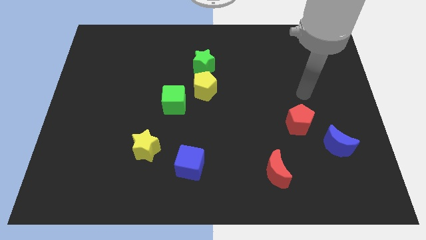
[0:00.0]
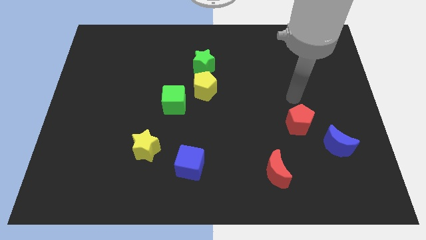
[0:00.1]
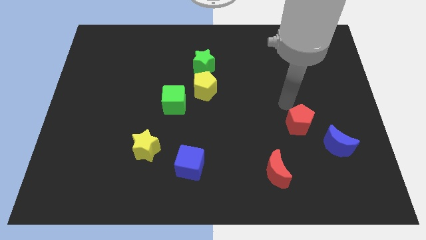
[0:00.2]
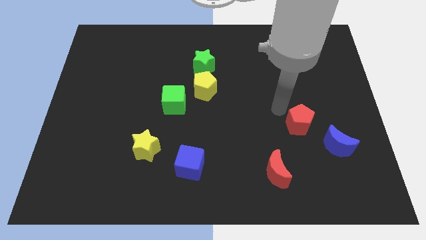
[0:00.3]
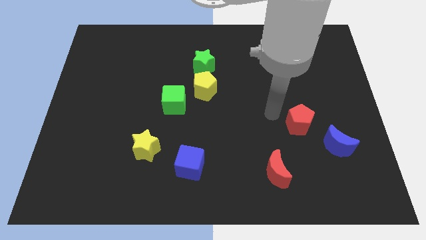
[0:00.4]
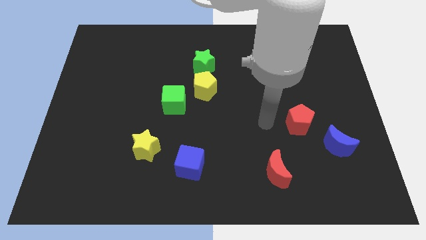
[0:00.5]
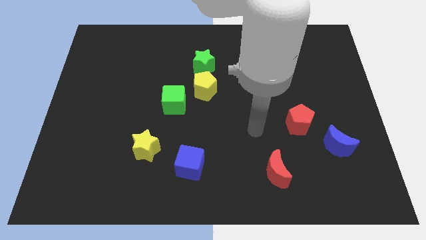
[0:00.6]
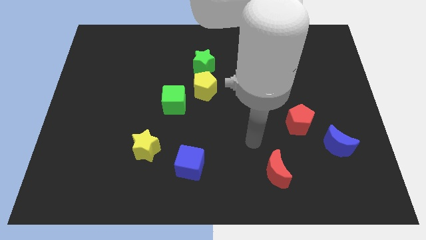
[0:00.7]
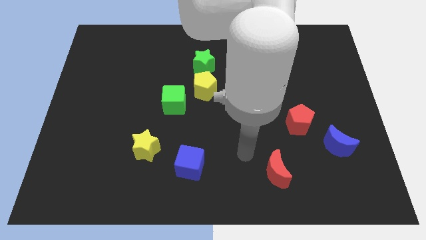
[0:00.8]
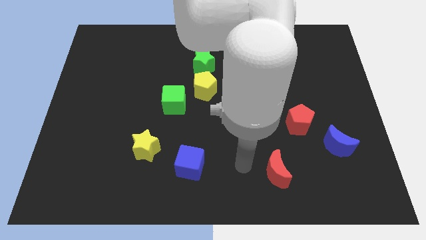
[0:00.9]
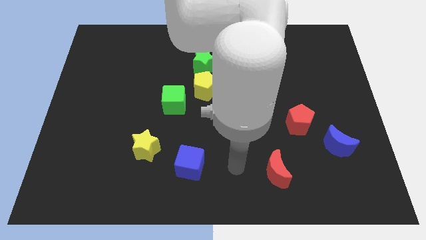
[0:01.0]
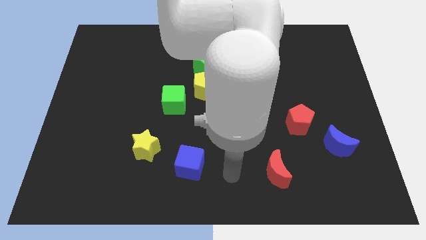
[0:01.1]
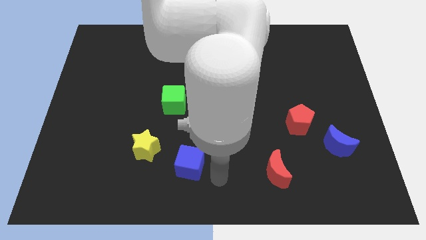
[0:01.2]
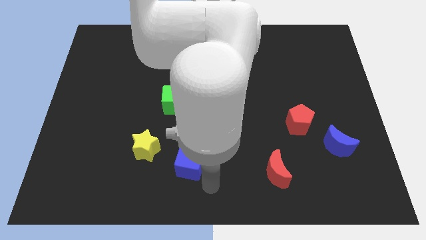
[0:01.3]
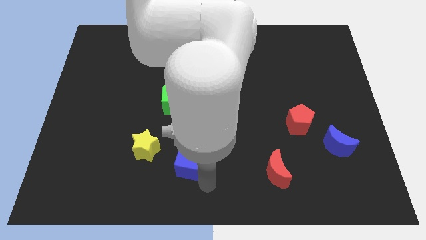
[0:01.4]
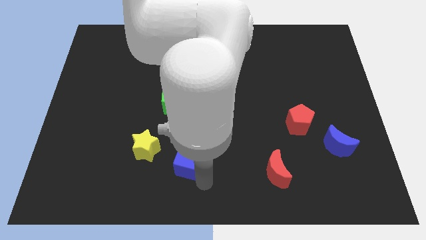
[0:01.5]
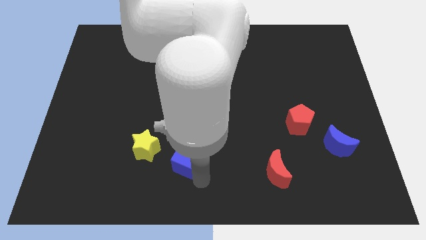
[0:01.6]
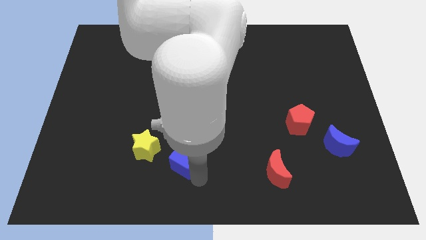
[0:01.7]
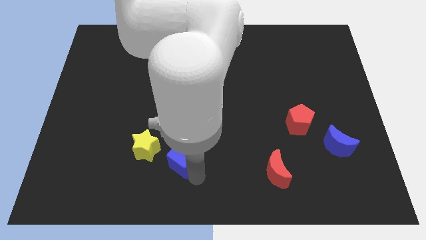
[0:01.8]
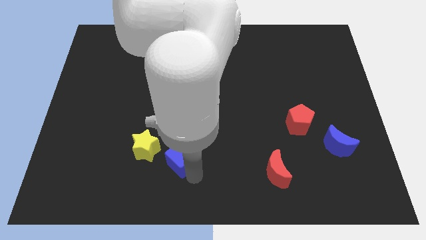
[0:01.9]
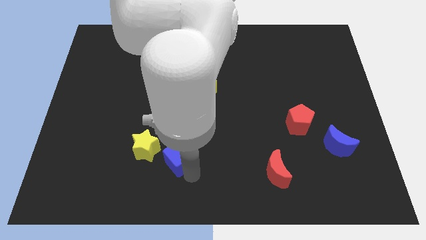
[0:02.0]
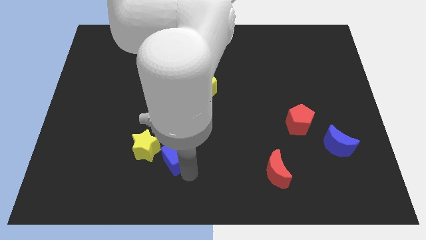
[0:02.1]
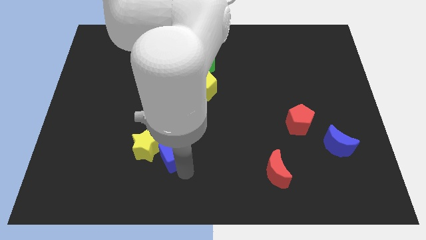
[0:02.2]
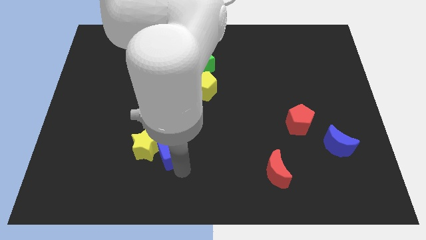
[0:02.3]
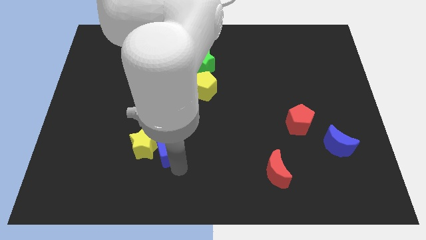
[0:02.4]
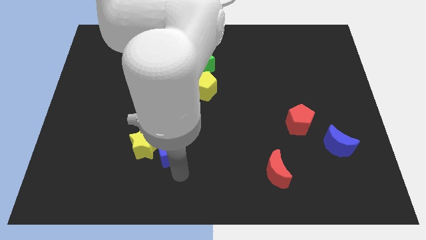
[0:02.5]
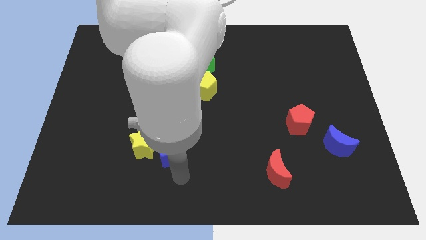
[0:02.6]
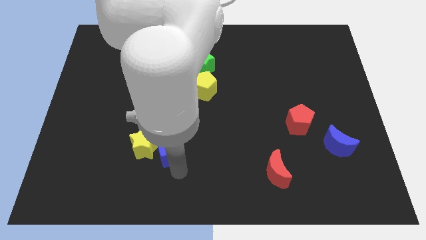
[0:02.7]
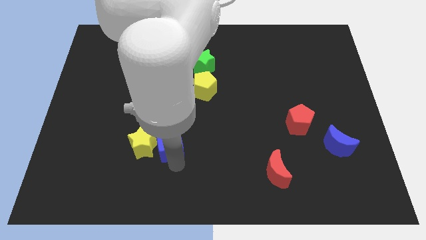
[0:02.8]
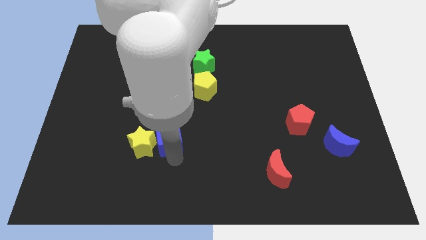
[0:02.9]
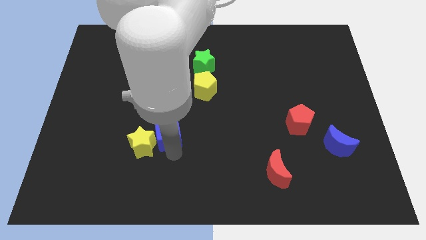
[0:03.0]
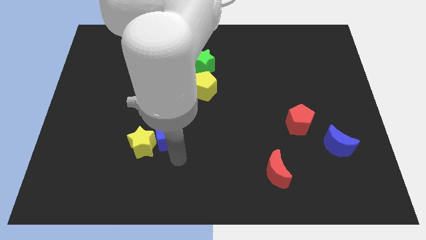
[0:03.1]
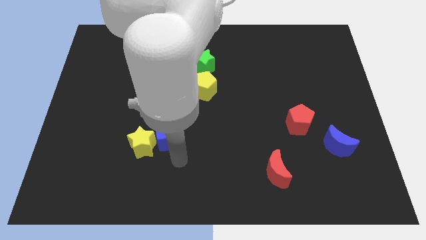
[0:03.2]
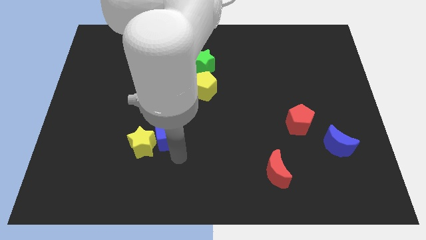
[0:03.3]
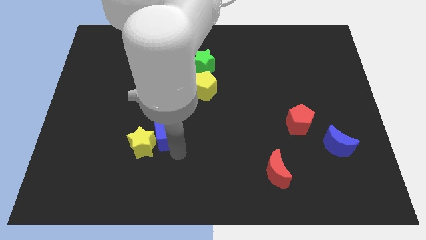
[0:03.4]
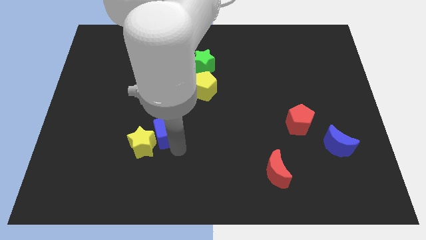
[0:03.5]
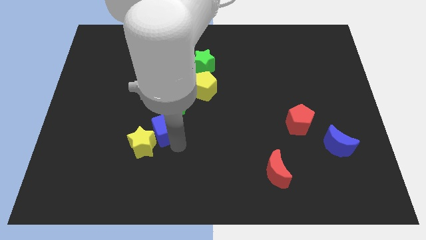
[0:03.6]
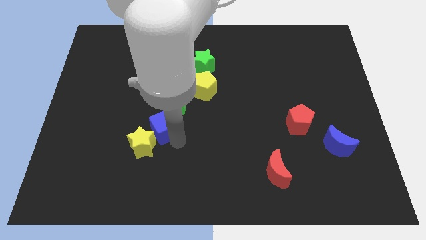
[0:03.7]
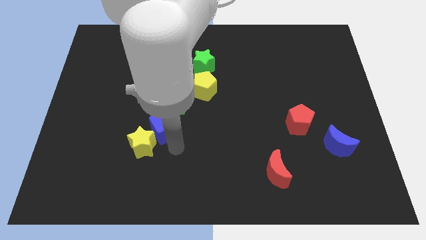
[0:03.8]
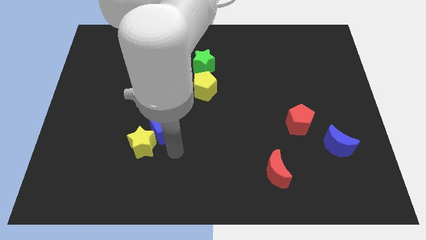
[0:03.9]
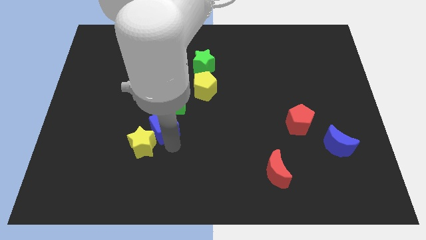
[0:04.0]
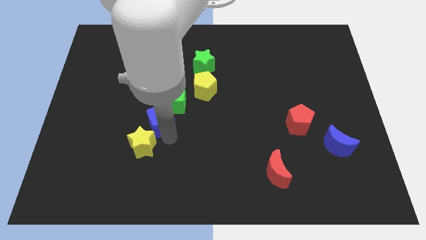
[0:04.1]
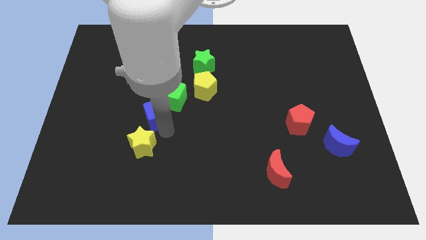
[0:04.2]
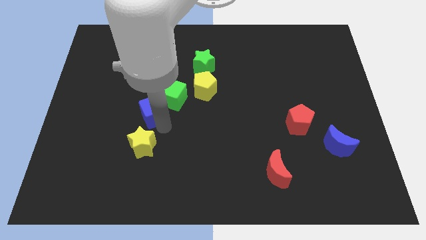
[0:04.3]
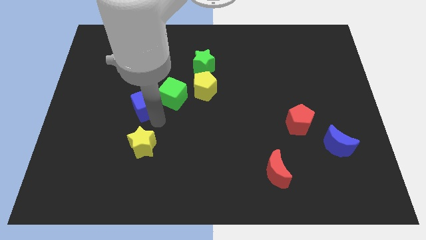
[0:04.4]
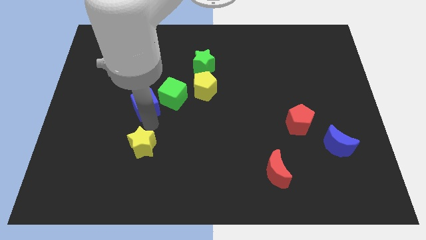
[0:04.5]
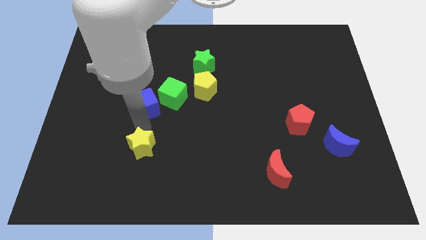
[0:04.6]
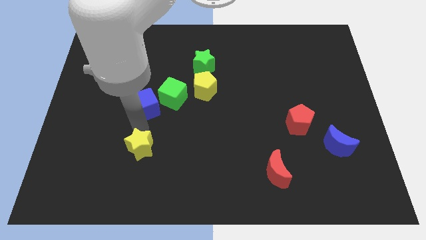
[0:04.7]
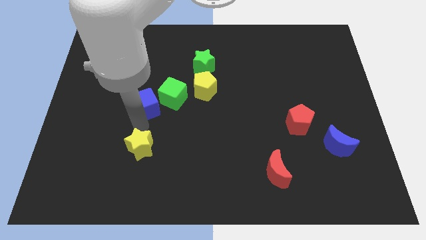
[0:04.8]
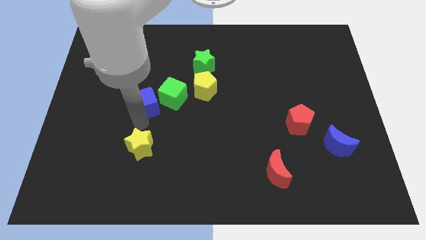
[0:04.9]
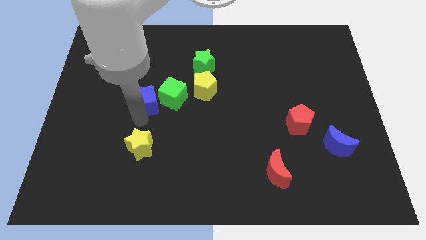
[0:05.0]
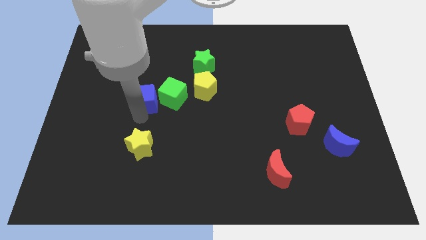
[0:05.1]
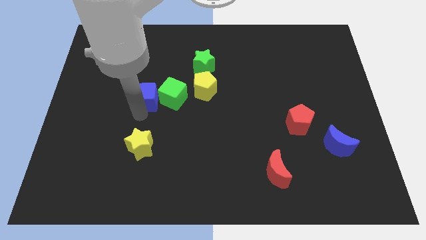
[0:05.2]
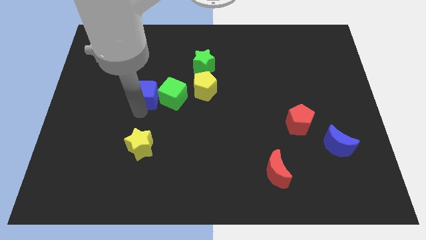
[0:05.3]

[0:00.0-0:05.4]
put the blue cube to the top left side of the green cube

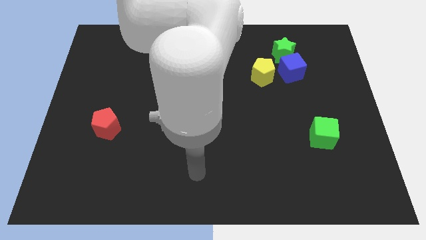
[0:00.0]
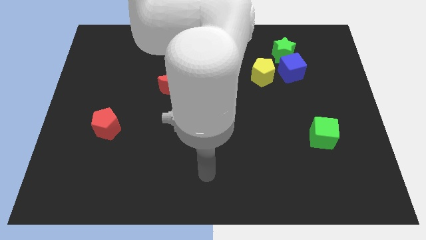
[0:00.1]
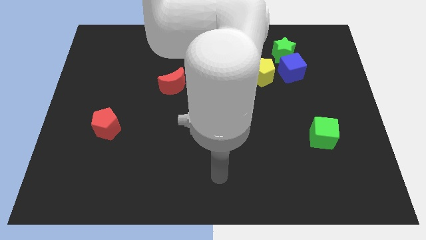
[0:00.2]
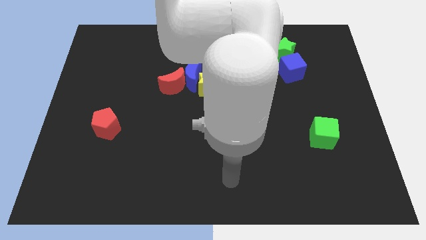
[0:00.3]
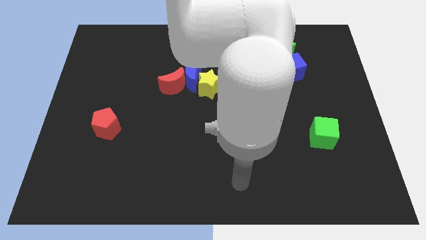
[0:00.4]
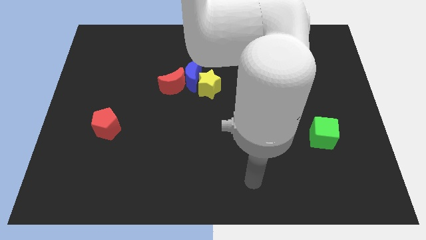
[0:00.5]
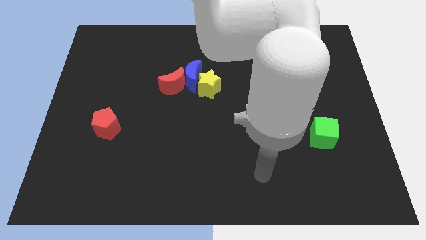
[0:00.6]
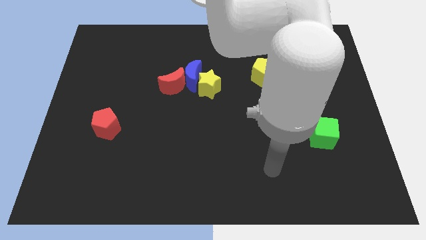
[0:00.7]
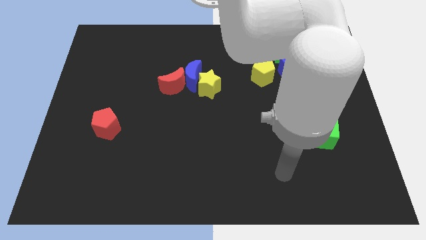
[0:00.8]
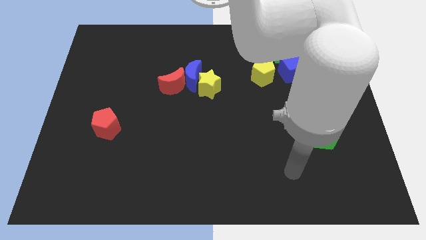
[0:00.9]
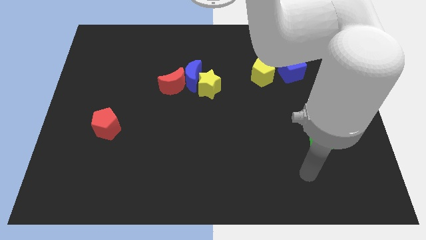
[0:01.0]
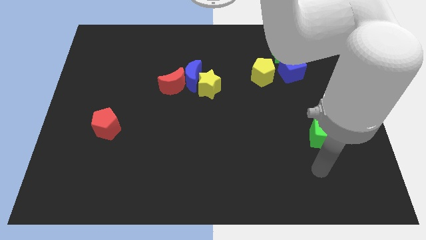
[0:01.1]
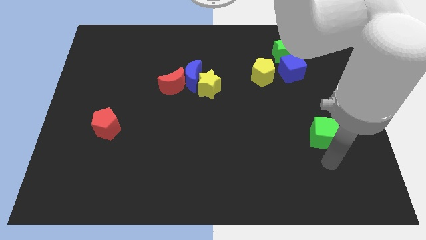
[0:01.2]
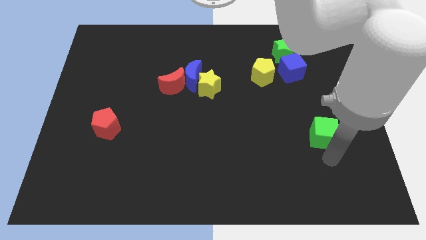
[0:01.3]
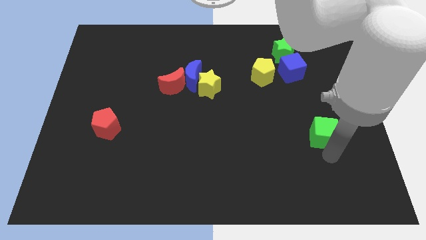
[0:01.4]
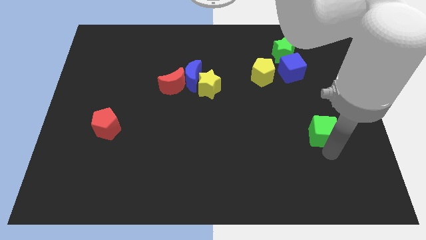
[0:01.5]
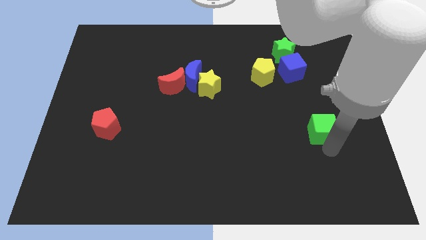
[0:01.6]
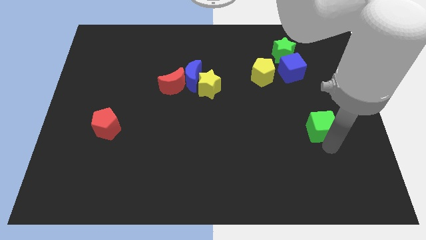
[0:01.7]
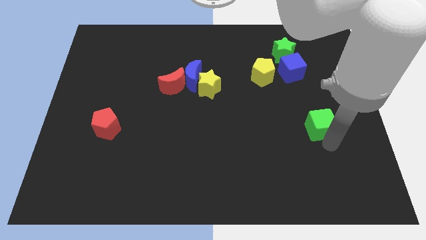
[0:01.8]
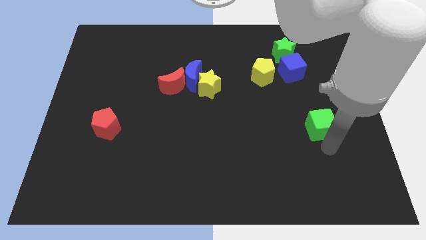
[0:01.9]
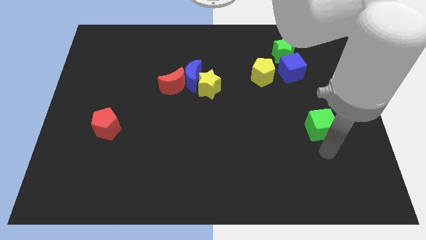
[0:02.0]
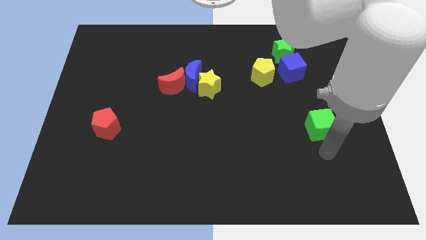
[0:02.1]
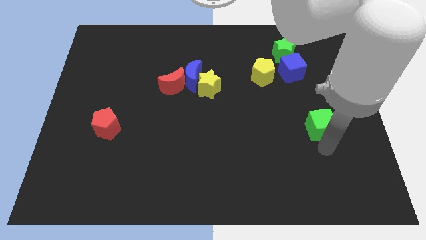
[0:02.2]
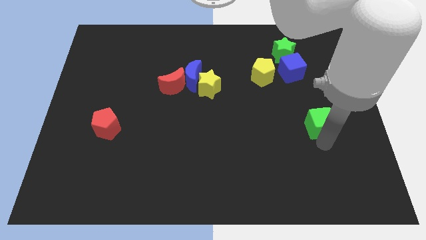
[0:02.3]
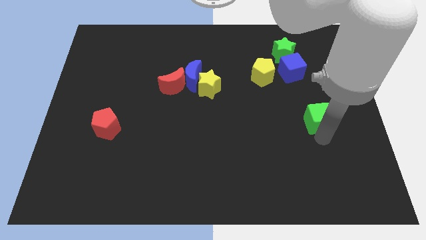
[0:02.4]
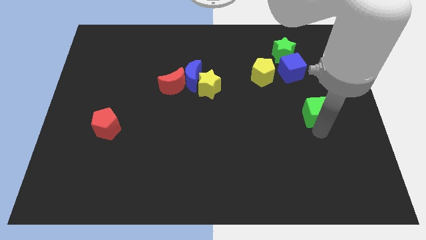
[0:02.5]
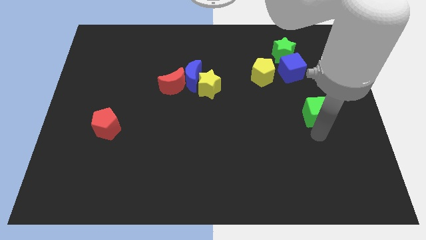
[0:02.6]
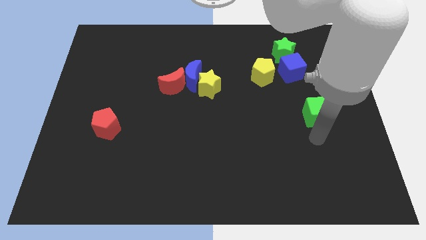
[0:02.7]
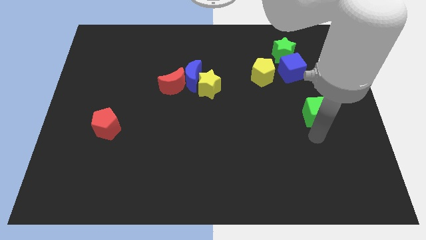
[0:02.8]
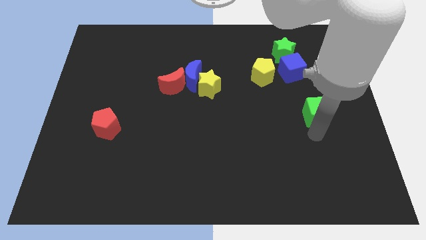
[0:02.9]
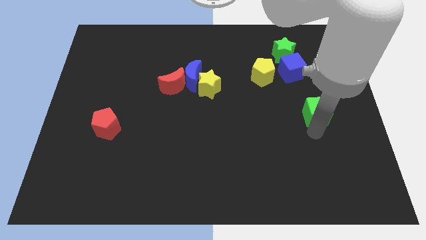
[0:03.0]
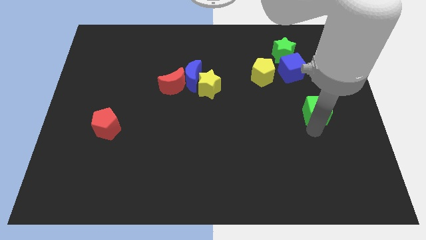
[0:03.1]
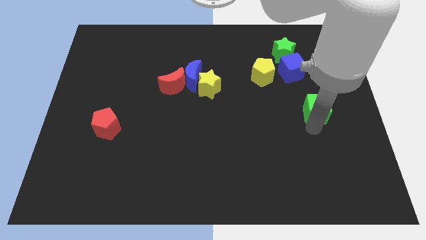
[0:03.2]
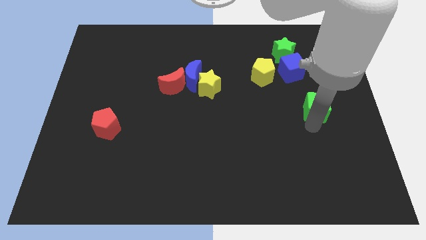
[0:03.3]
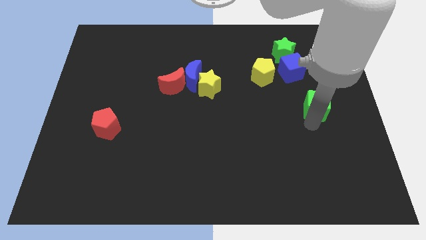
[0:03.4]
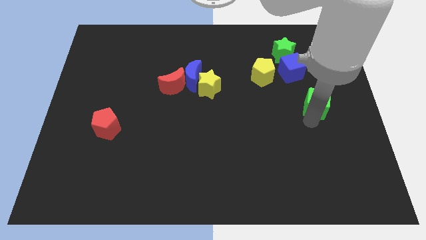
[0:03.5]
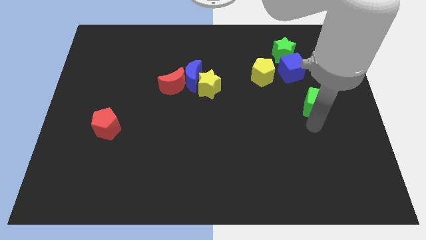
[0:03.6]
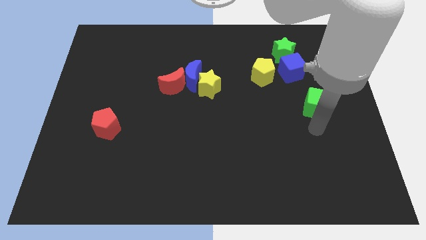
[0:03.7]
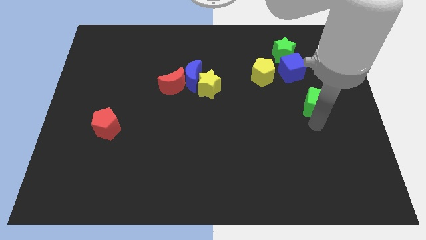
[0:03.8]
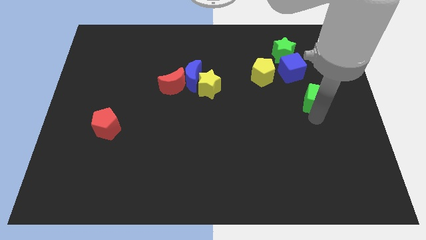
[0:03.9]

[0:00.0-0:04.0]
move the green cube diagonally down and to the right of the blue cube
